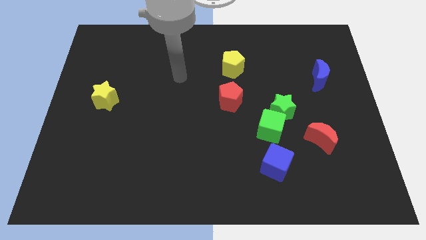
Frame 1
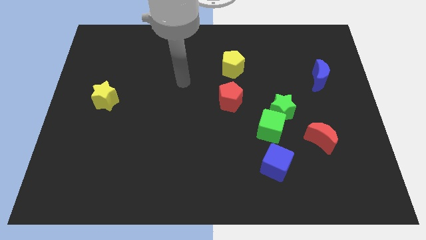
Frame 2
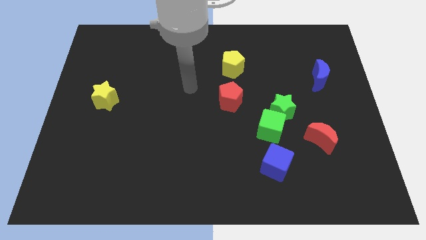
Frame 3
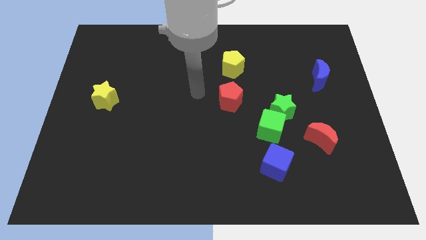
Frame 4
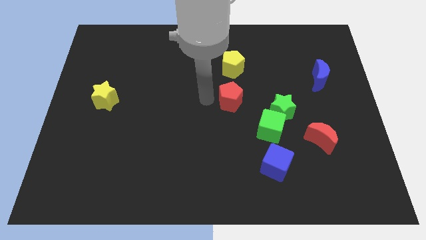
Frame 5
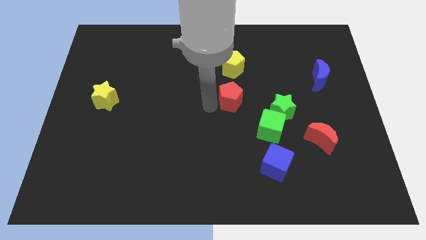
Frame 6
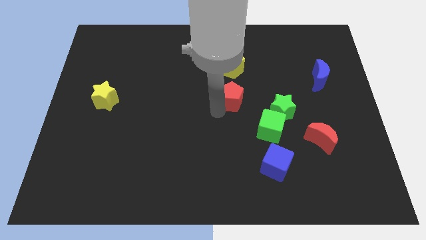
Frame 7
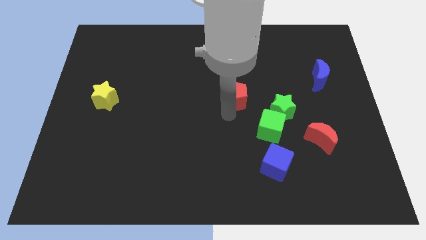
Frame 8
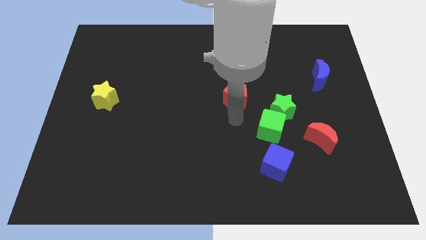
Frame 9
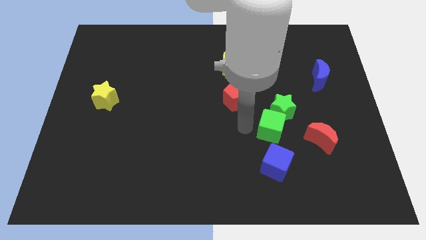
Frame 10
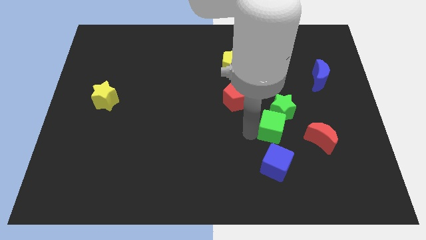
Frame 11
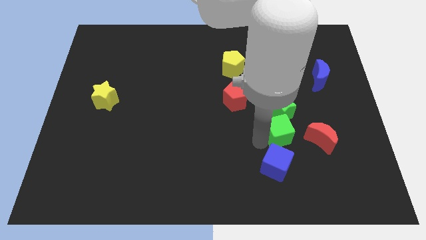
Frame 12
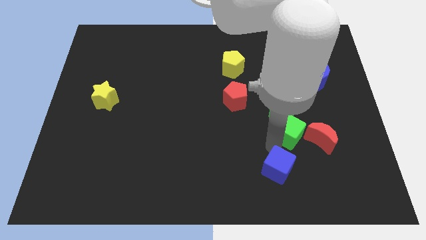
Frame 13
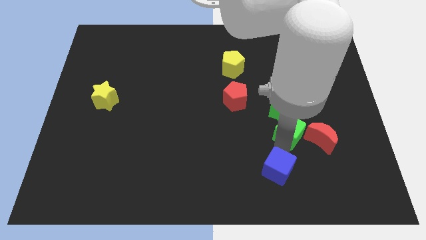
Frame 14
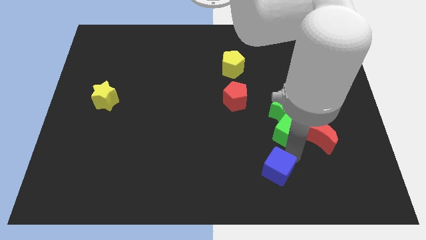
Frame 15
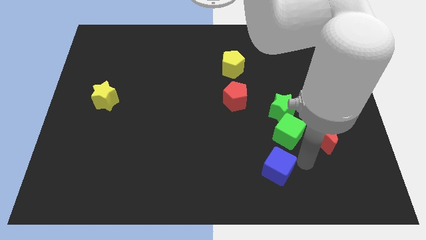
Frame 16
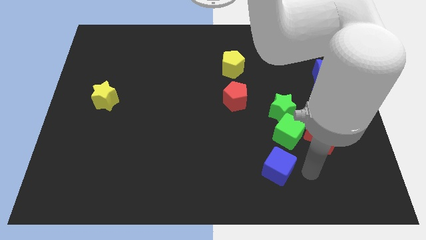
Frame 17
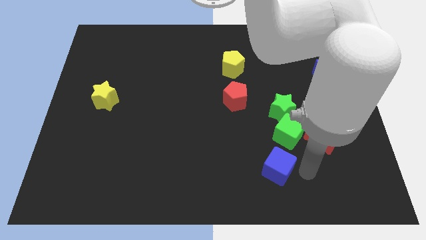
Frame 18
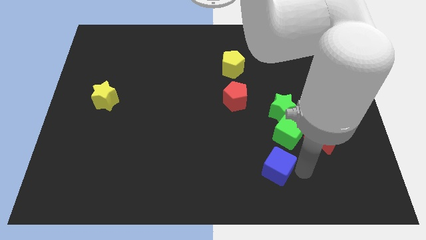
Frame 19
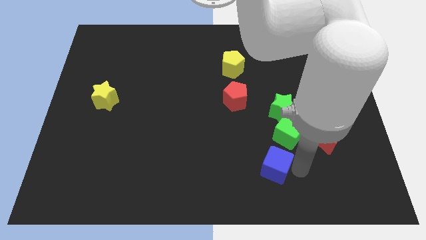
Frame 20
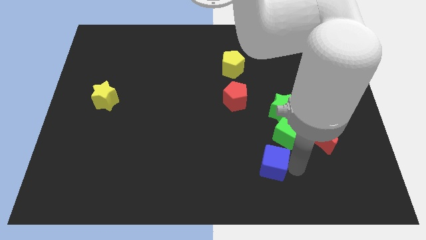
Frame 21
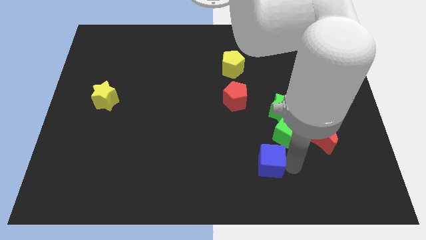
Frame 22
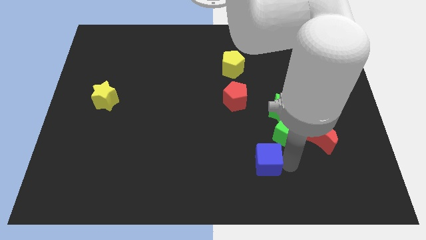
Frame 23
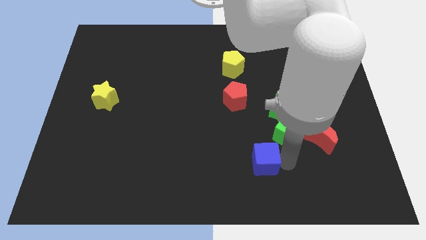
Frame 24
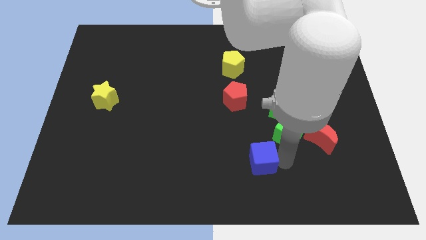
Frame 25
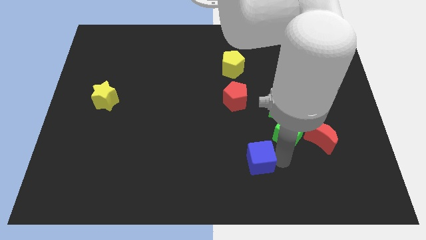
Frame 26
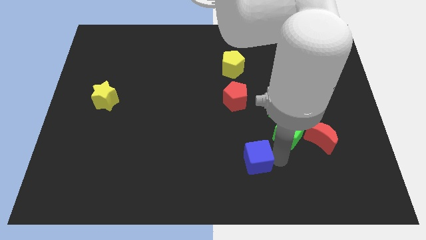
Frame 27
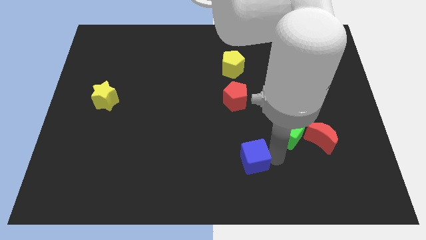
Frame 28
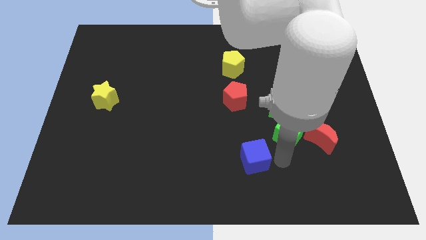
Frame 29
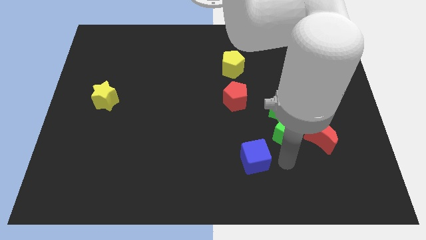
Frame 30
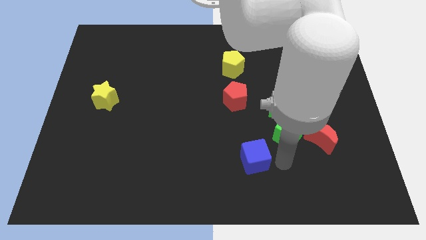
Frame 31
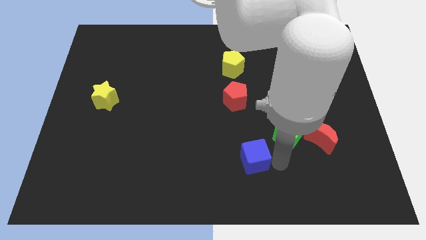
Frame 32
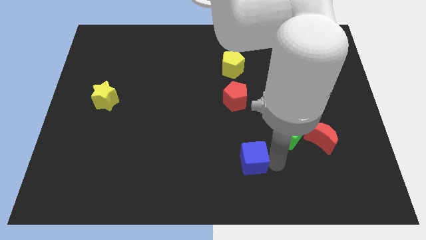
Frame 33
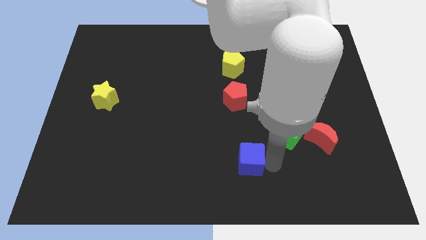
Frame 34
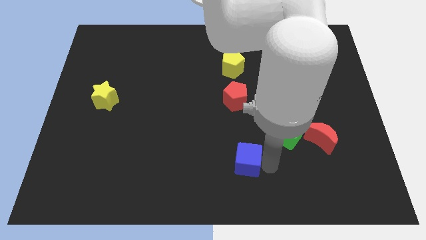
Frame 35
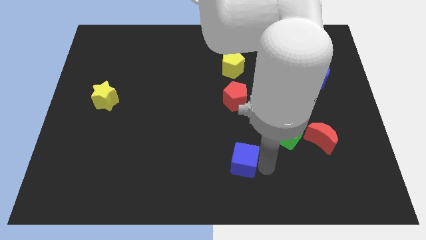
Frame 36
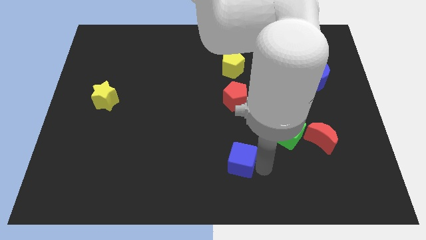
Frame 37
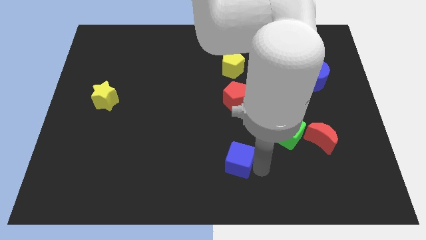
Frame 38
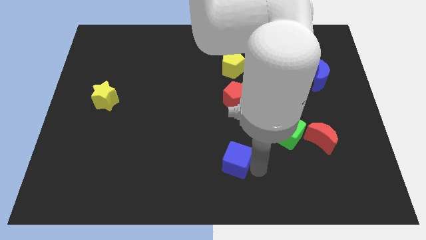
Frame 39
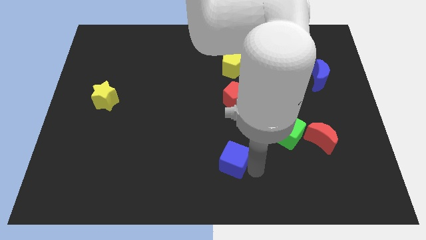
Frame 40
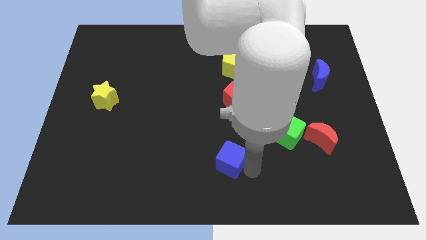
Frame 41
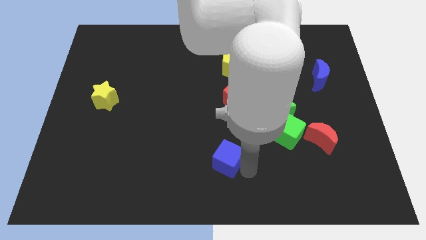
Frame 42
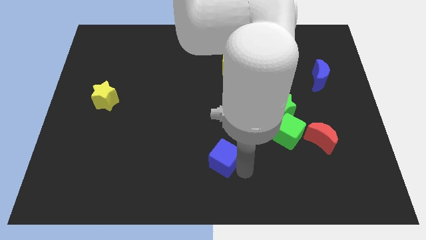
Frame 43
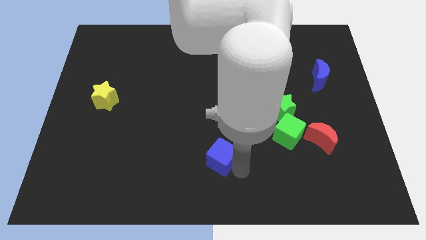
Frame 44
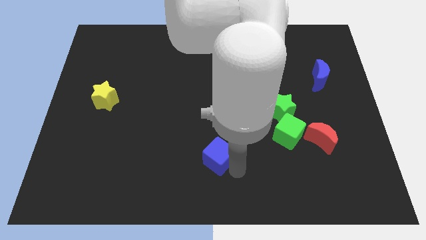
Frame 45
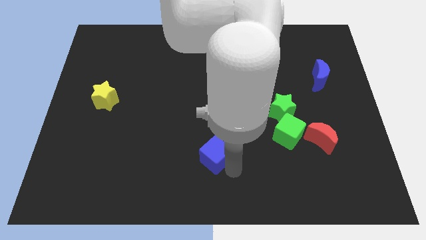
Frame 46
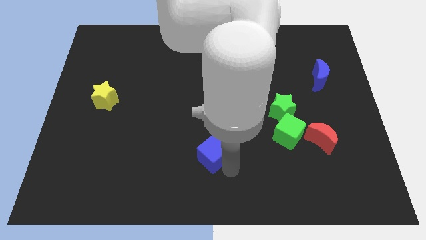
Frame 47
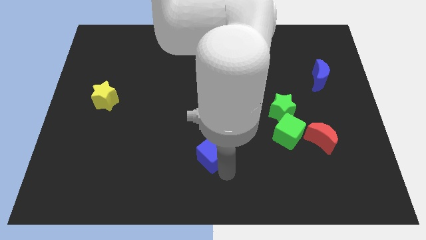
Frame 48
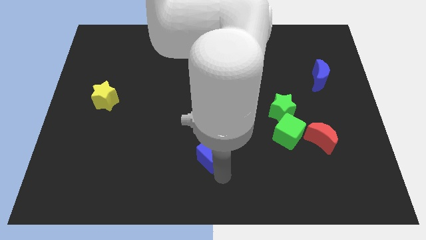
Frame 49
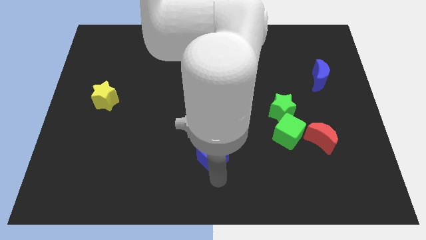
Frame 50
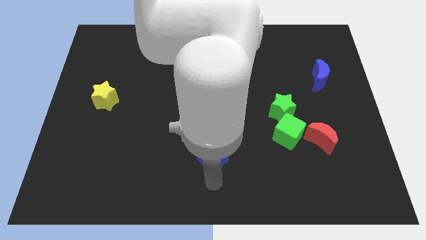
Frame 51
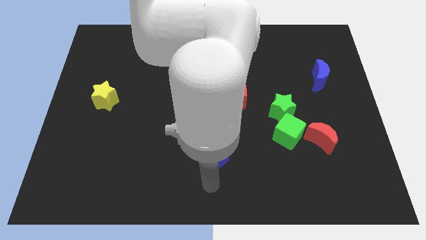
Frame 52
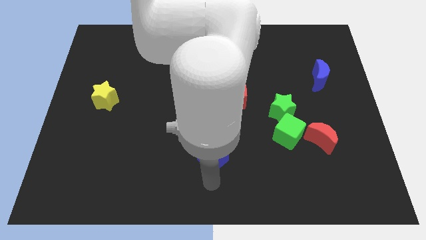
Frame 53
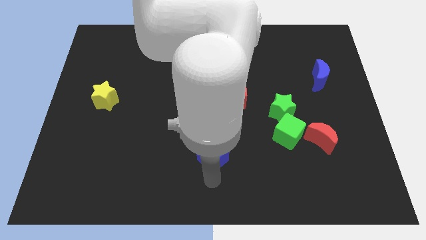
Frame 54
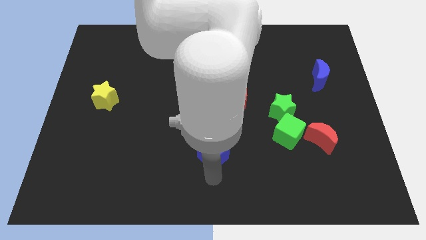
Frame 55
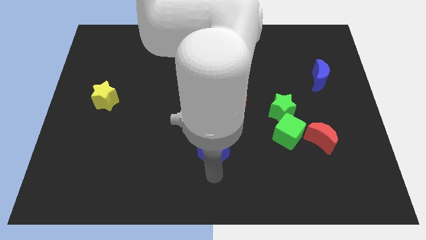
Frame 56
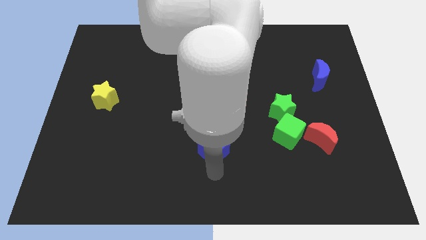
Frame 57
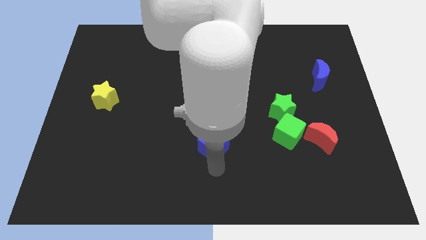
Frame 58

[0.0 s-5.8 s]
slide the blue cube to the center

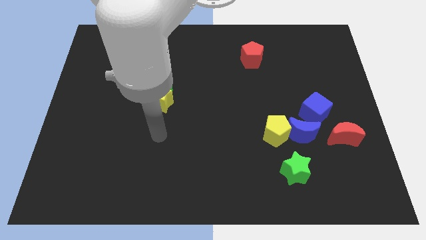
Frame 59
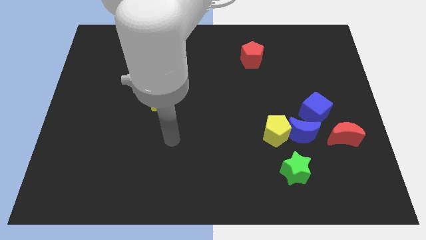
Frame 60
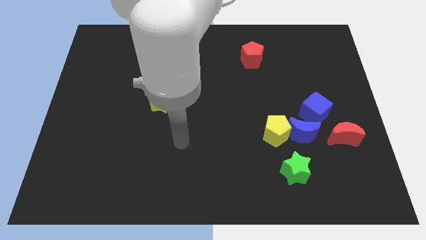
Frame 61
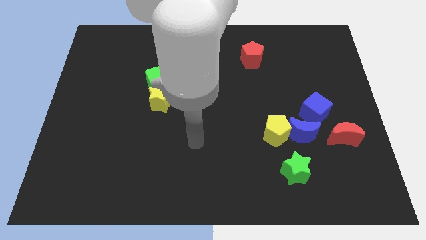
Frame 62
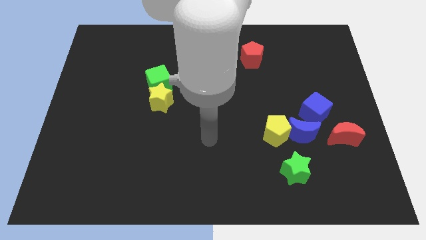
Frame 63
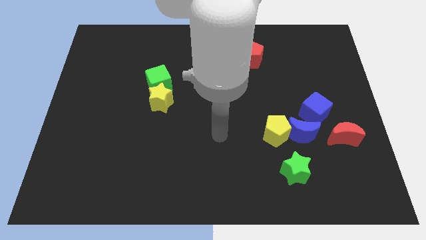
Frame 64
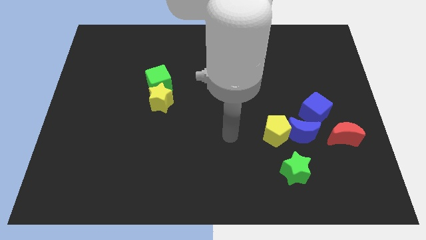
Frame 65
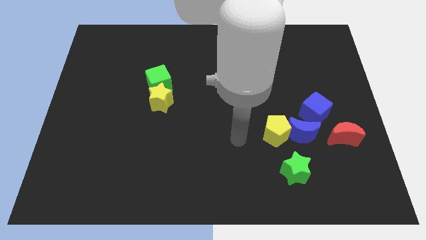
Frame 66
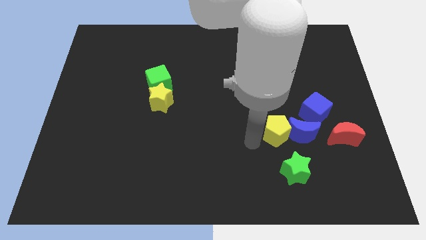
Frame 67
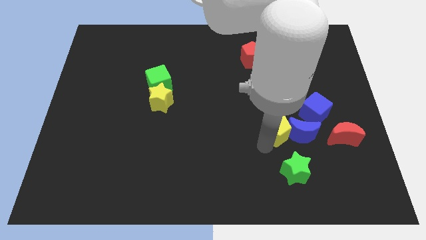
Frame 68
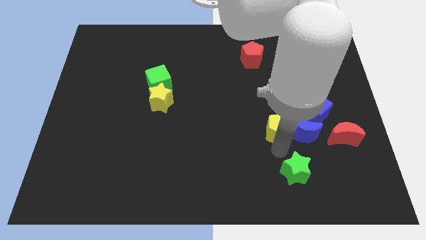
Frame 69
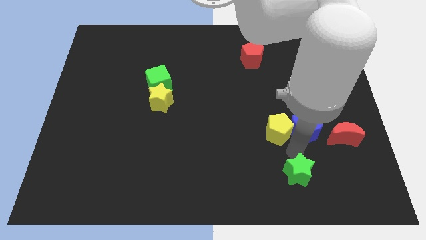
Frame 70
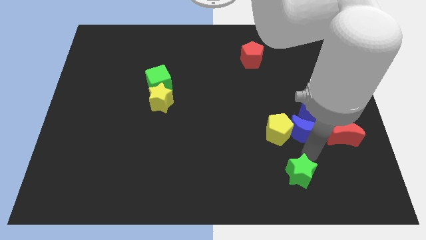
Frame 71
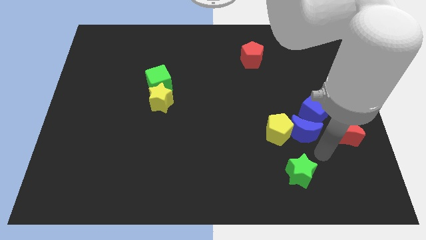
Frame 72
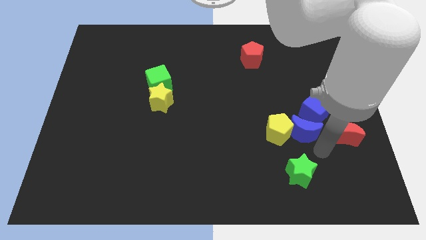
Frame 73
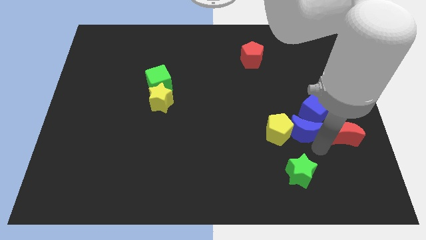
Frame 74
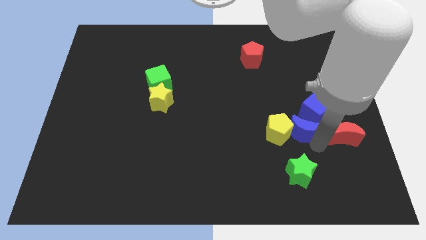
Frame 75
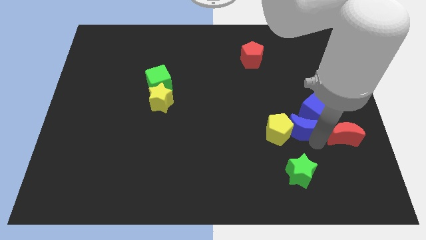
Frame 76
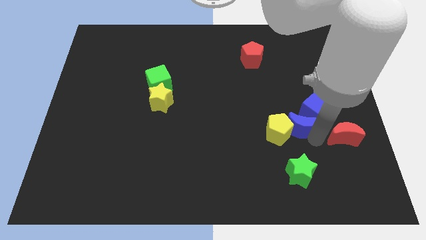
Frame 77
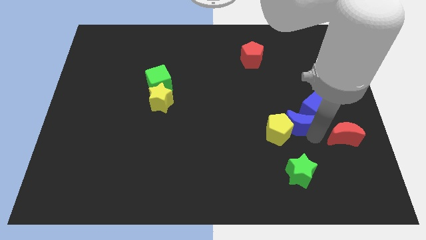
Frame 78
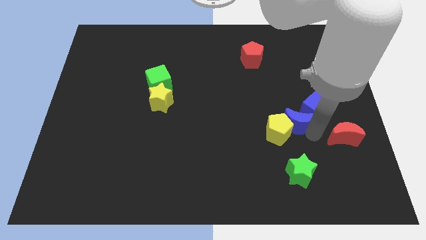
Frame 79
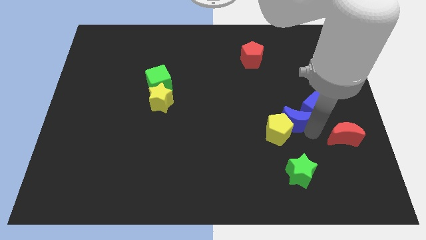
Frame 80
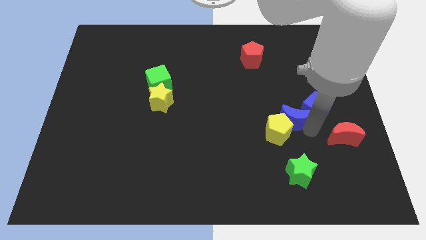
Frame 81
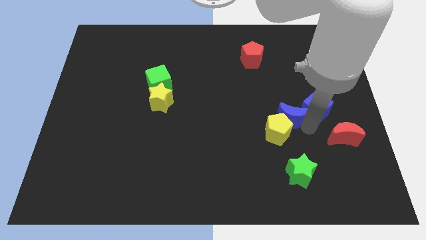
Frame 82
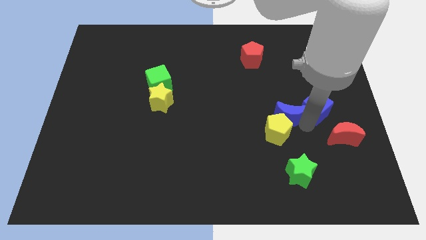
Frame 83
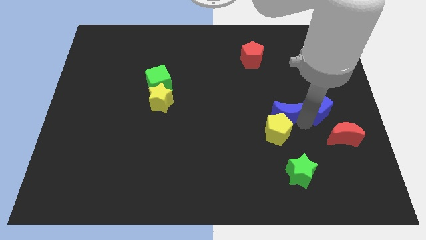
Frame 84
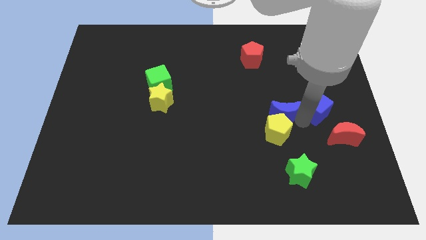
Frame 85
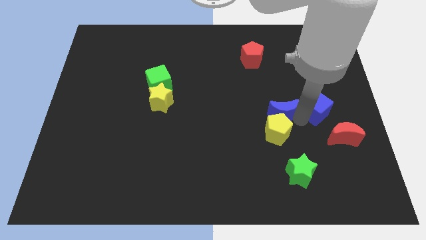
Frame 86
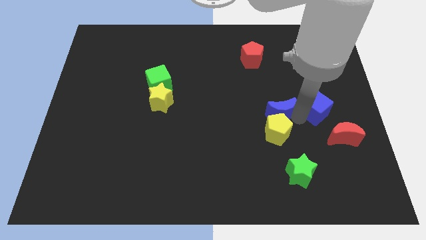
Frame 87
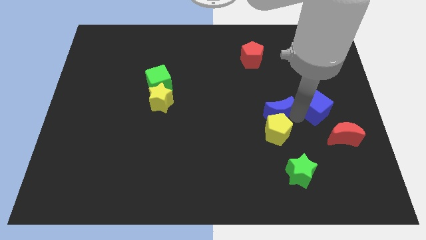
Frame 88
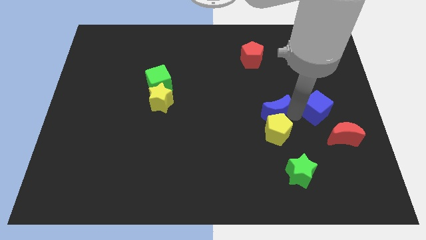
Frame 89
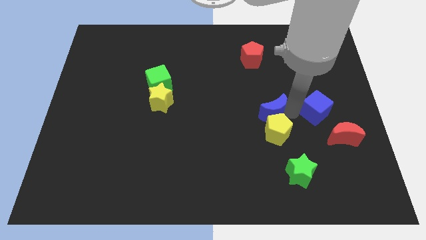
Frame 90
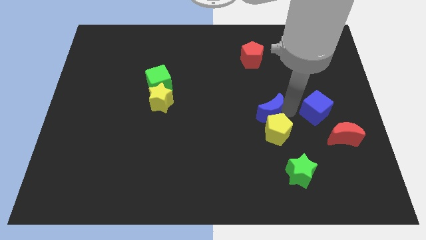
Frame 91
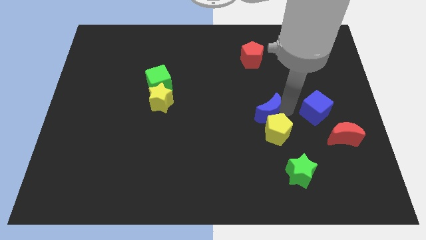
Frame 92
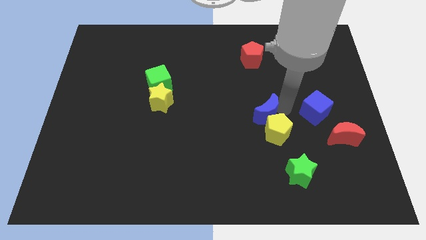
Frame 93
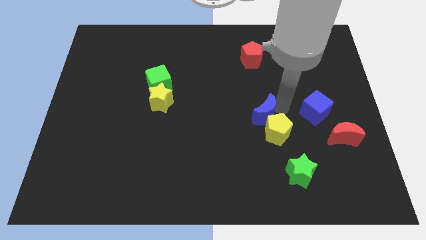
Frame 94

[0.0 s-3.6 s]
slide the blue moon to the center of the board
